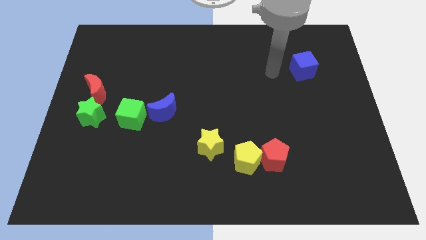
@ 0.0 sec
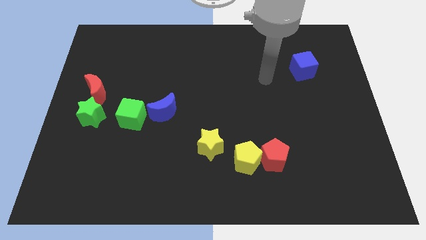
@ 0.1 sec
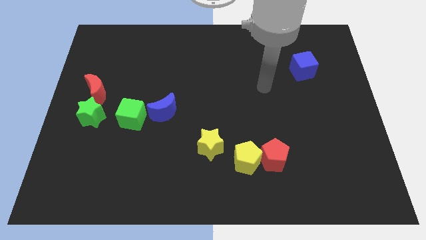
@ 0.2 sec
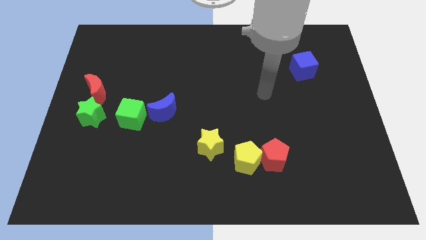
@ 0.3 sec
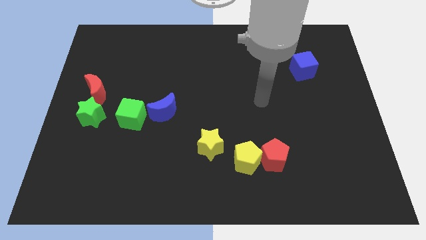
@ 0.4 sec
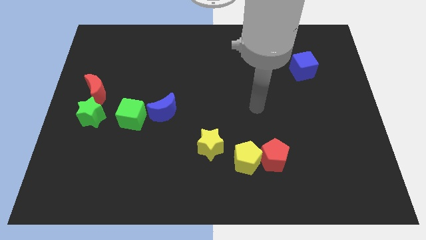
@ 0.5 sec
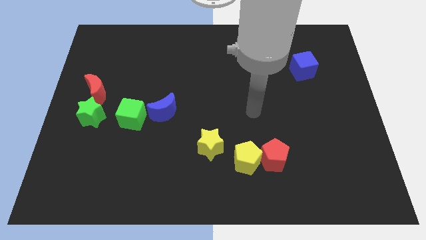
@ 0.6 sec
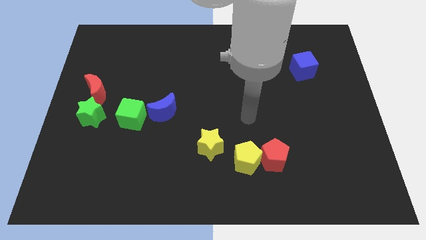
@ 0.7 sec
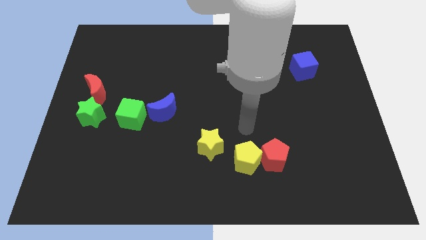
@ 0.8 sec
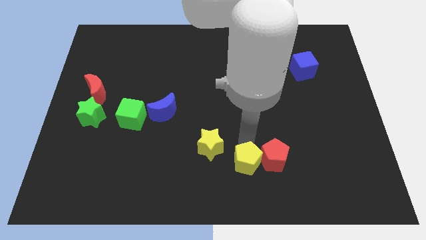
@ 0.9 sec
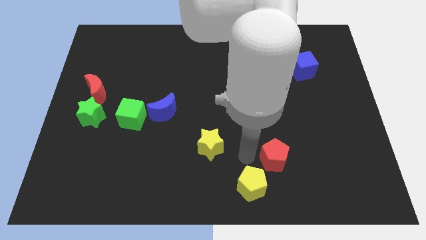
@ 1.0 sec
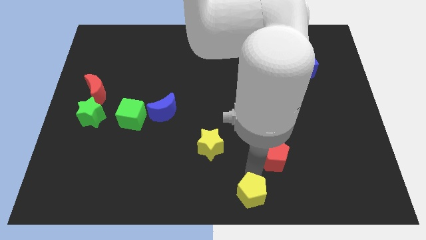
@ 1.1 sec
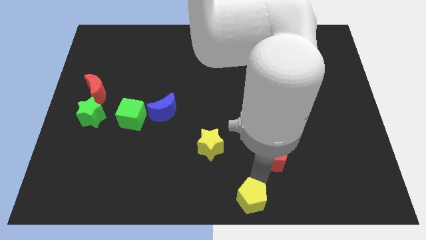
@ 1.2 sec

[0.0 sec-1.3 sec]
pull the red pentagon apart from the yellow pentagon

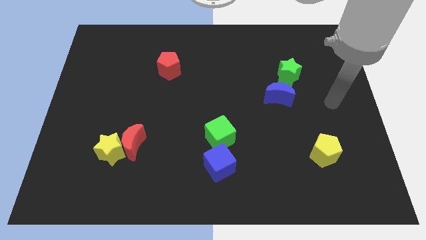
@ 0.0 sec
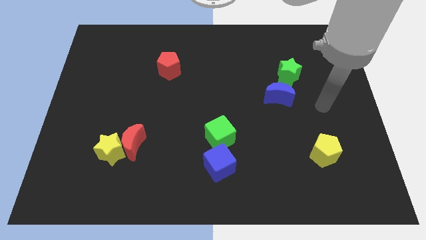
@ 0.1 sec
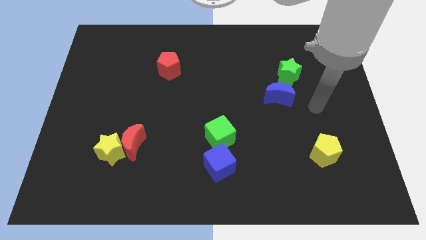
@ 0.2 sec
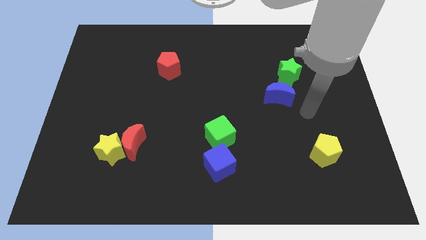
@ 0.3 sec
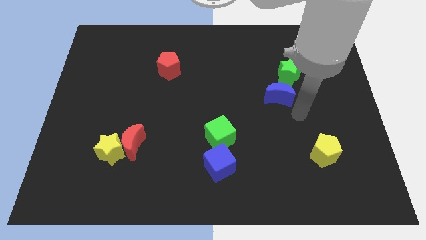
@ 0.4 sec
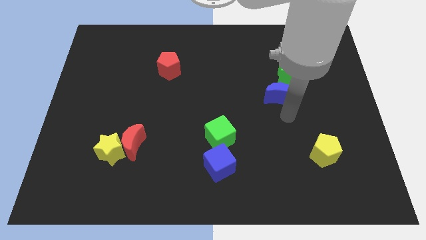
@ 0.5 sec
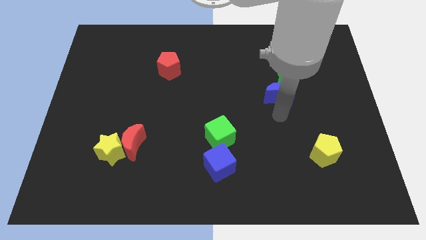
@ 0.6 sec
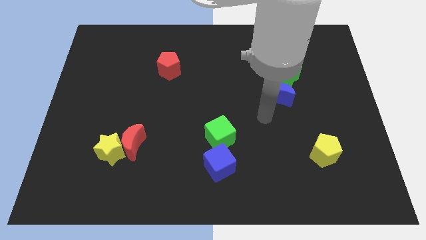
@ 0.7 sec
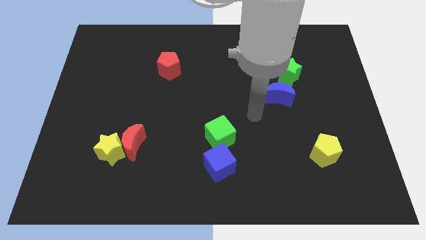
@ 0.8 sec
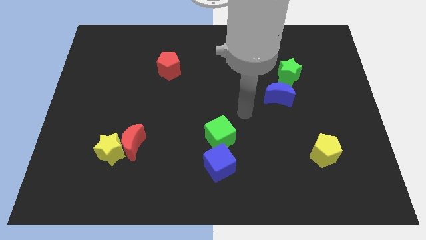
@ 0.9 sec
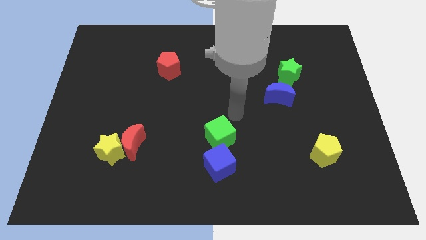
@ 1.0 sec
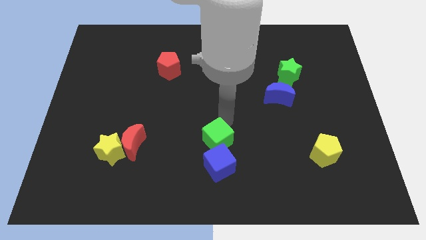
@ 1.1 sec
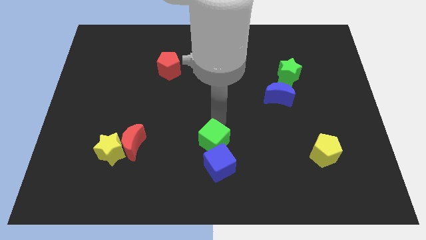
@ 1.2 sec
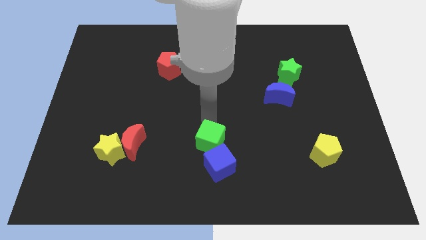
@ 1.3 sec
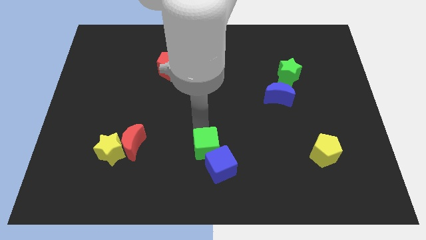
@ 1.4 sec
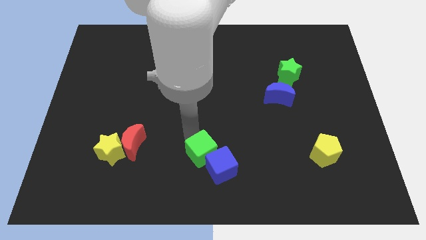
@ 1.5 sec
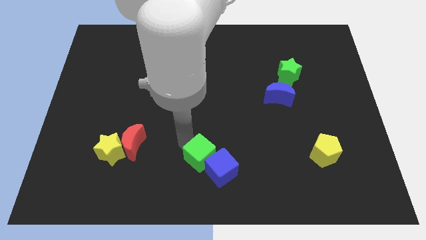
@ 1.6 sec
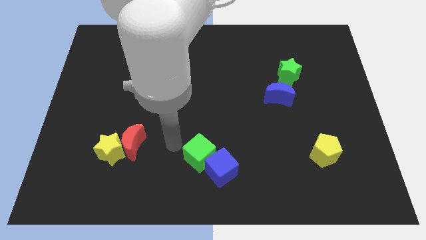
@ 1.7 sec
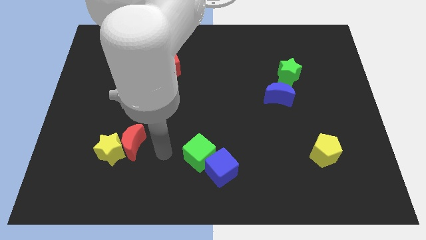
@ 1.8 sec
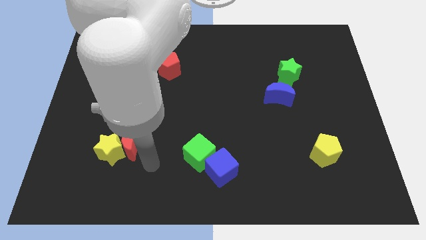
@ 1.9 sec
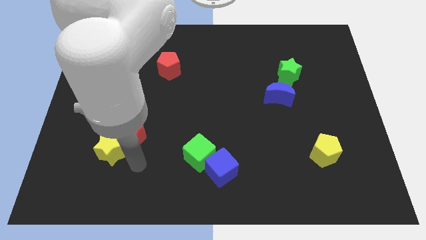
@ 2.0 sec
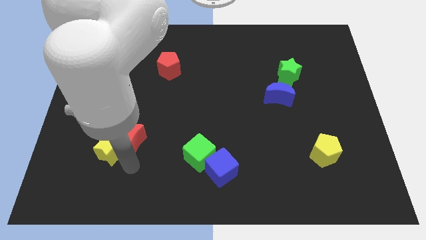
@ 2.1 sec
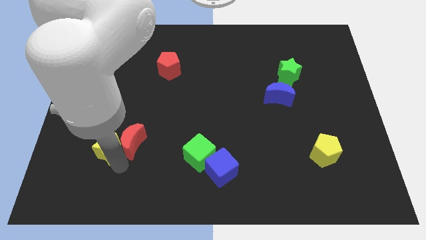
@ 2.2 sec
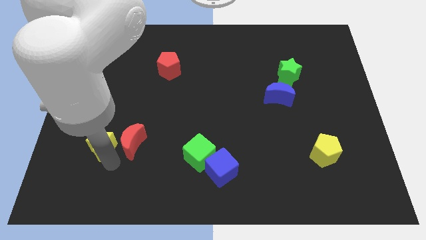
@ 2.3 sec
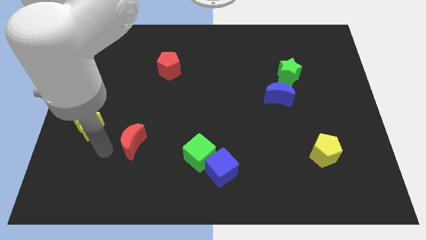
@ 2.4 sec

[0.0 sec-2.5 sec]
pull the red moon apart from the yellow star

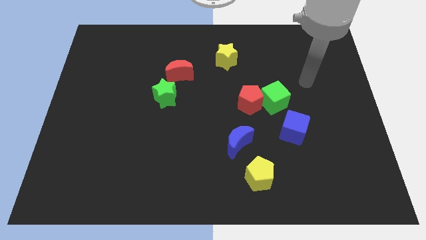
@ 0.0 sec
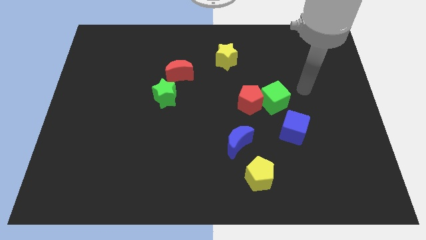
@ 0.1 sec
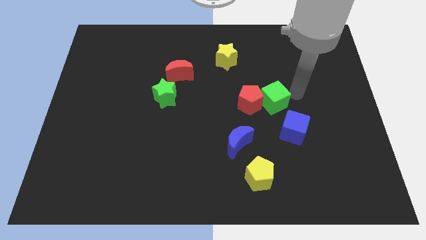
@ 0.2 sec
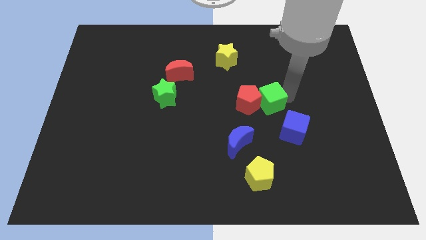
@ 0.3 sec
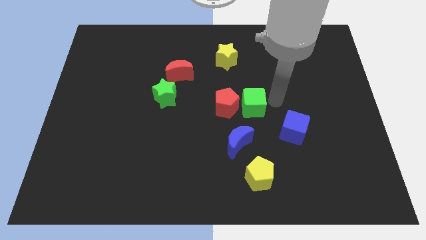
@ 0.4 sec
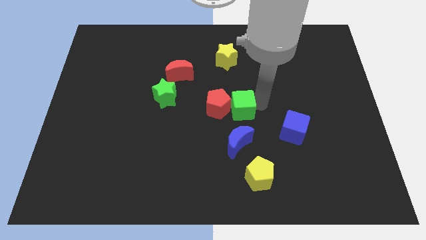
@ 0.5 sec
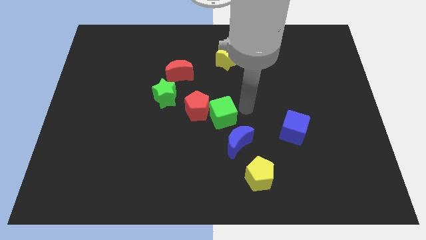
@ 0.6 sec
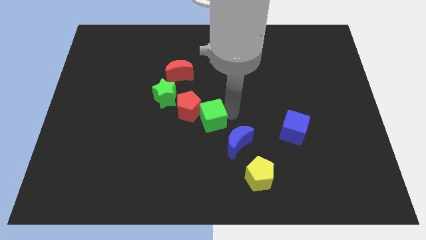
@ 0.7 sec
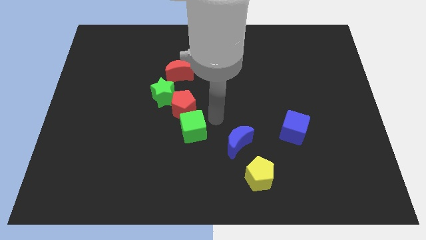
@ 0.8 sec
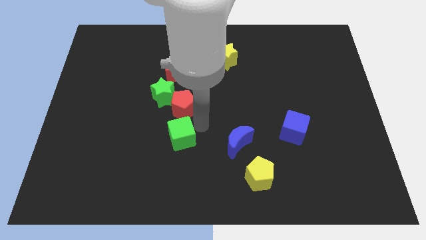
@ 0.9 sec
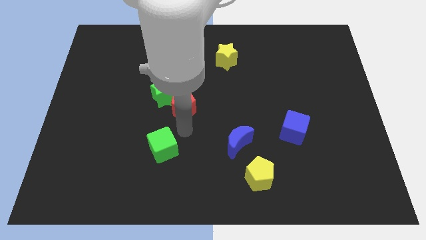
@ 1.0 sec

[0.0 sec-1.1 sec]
move the red pentagon away from the green cube

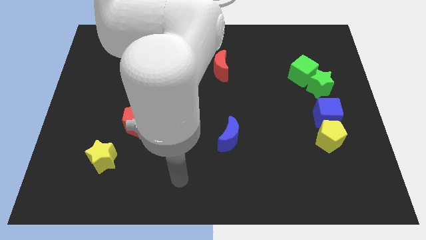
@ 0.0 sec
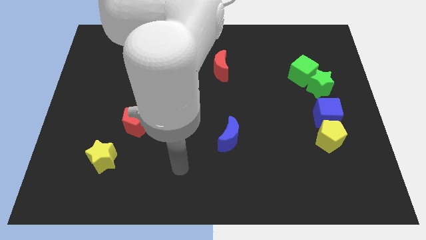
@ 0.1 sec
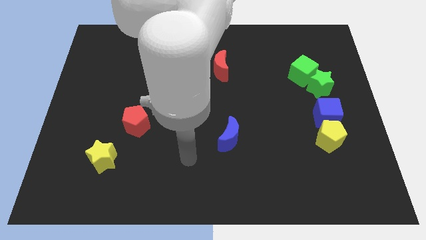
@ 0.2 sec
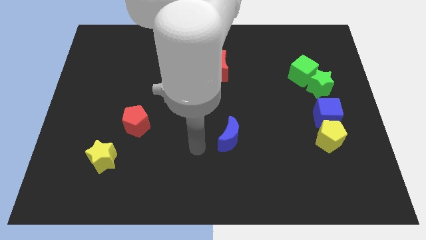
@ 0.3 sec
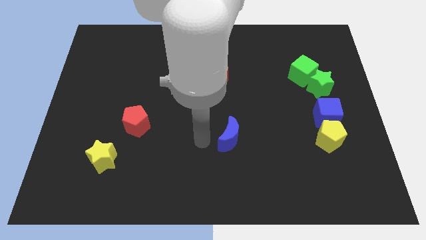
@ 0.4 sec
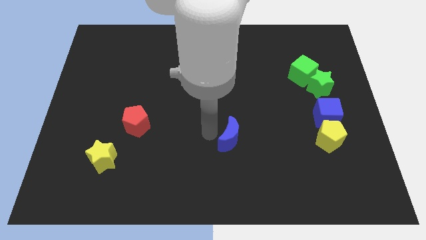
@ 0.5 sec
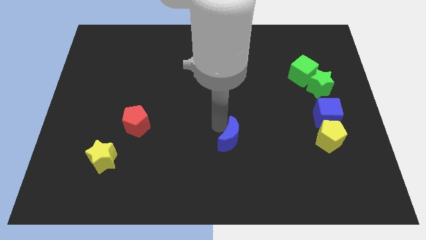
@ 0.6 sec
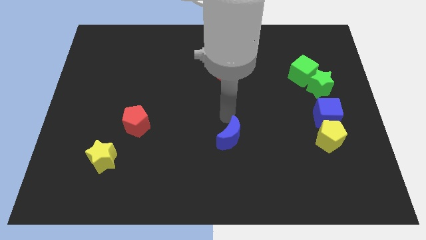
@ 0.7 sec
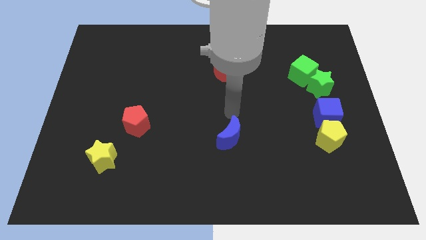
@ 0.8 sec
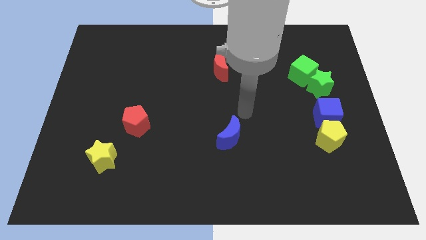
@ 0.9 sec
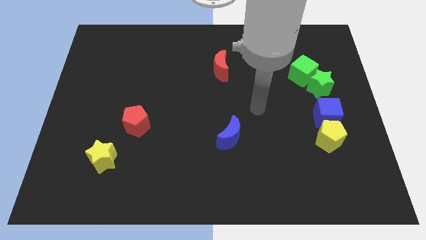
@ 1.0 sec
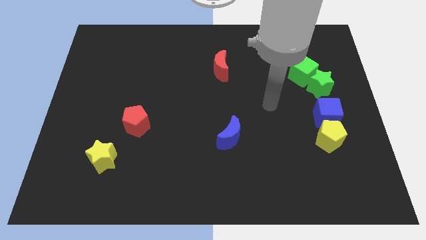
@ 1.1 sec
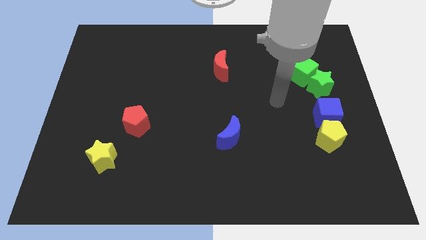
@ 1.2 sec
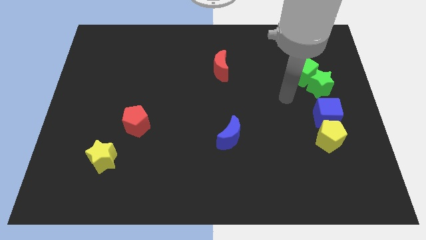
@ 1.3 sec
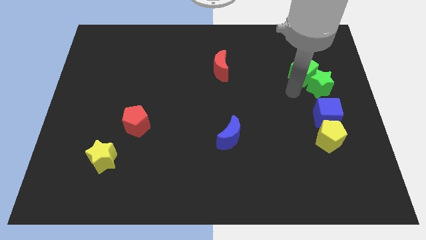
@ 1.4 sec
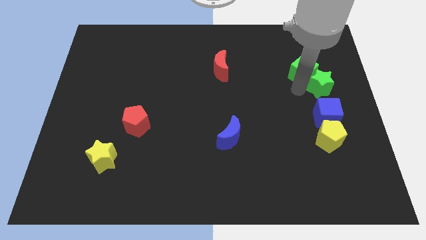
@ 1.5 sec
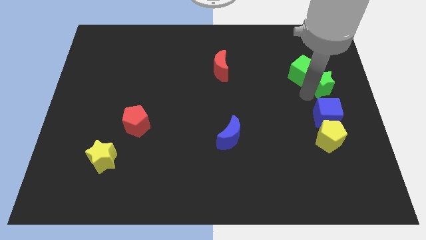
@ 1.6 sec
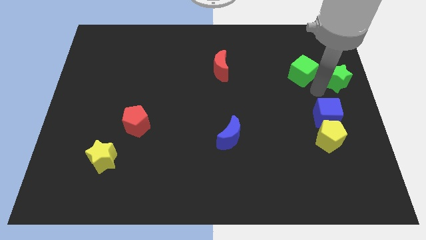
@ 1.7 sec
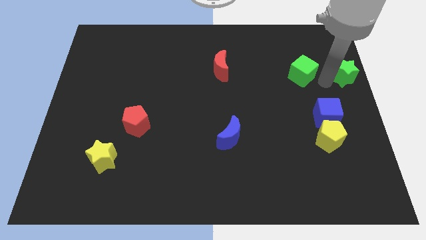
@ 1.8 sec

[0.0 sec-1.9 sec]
separate the green cube from the green star

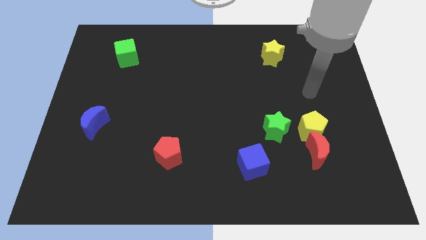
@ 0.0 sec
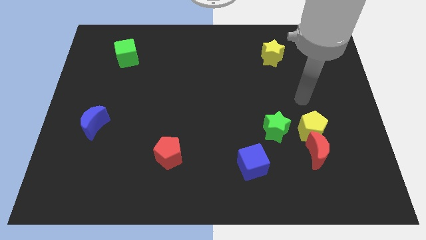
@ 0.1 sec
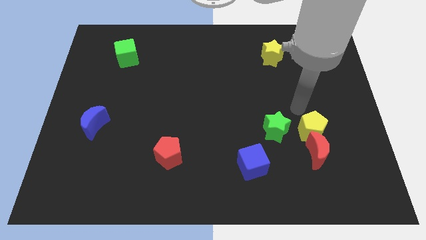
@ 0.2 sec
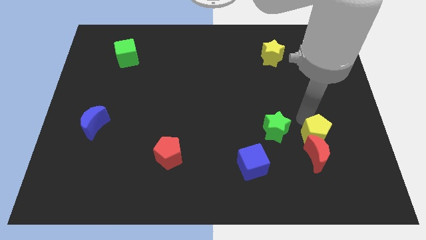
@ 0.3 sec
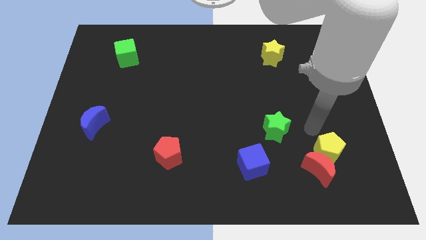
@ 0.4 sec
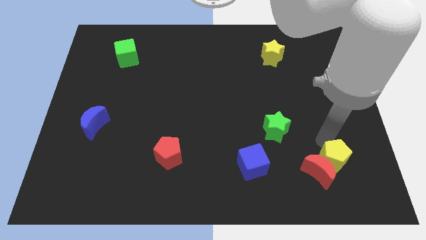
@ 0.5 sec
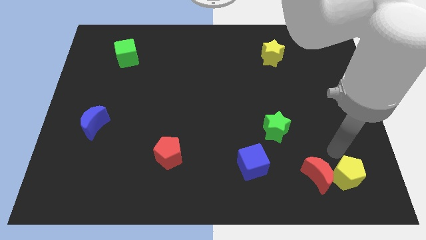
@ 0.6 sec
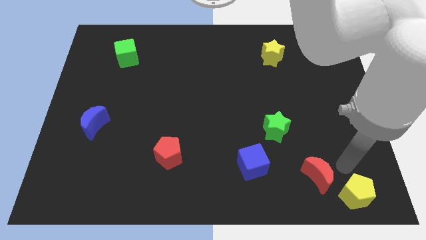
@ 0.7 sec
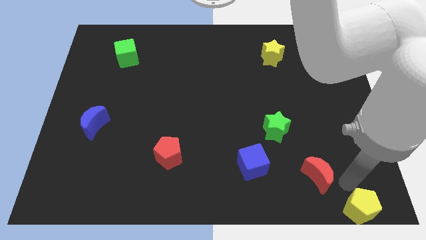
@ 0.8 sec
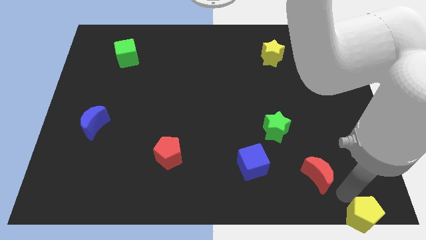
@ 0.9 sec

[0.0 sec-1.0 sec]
pull the red moon apart from the yellow pentagon

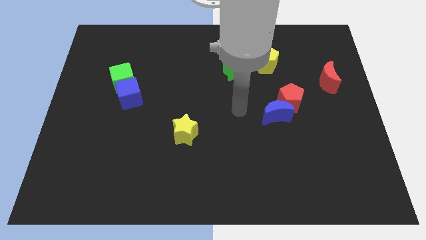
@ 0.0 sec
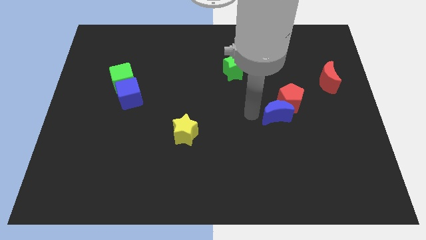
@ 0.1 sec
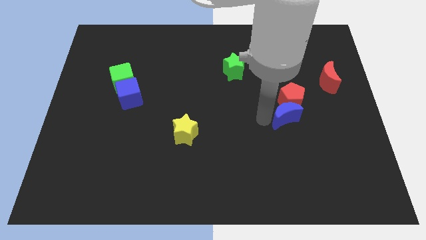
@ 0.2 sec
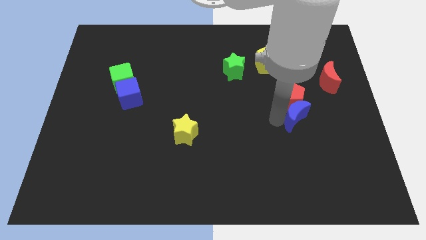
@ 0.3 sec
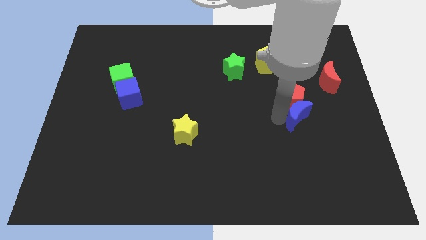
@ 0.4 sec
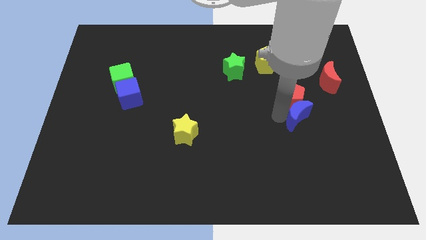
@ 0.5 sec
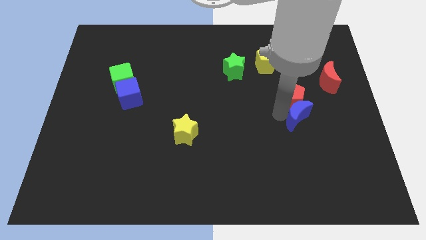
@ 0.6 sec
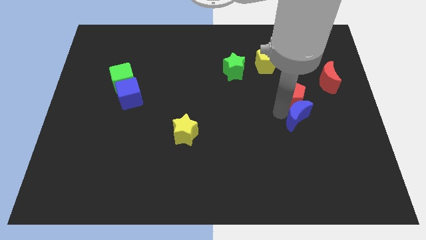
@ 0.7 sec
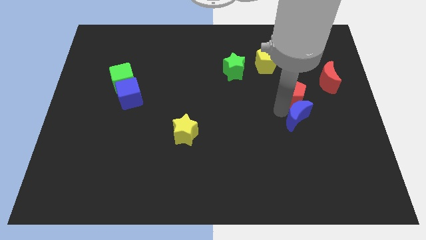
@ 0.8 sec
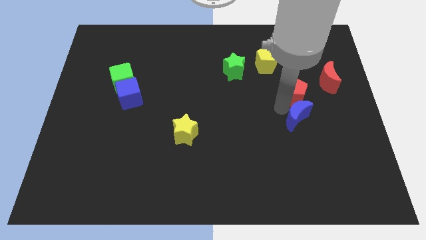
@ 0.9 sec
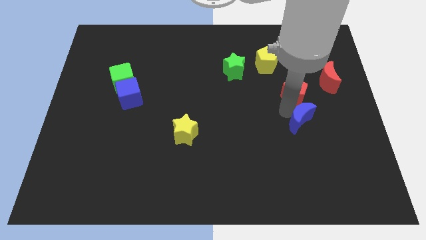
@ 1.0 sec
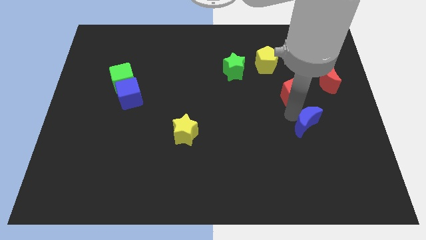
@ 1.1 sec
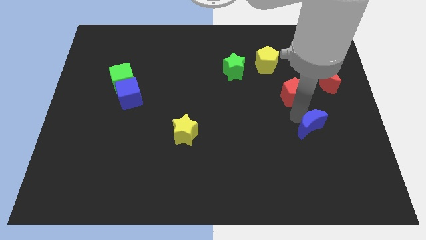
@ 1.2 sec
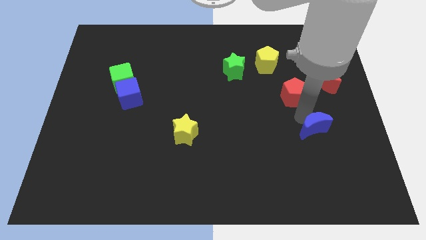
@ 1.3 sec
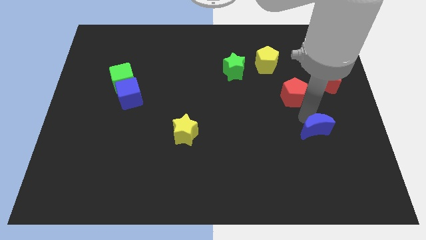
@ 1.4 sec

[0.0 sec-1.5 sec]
separate the red pentagon from the blue moon
